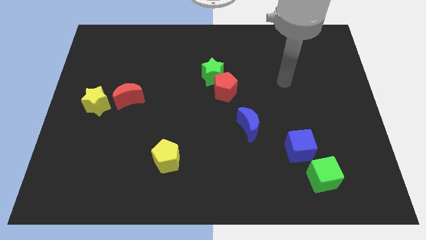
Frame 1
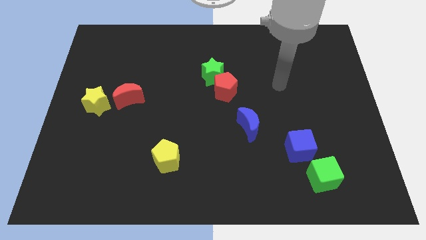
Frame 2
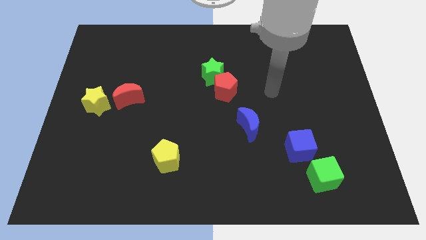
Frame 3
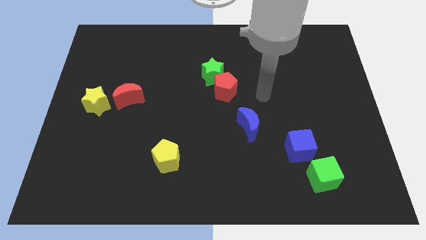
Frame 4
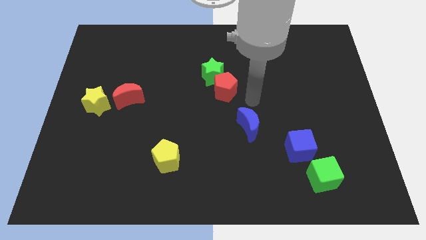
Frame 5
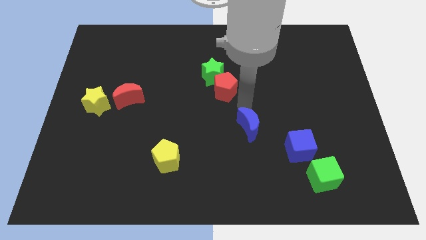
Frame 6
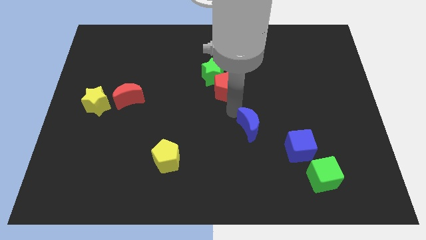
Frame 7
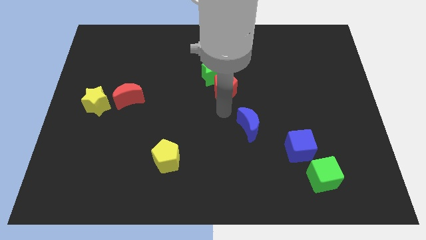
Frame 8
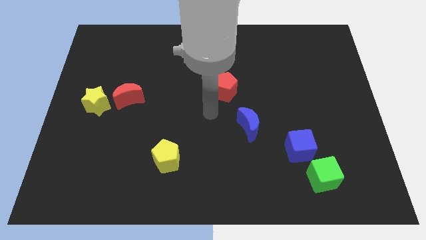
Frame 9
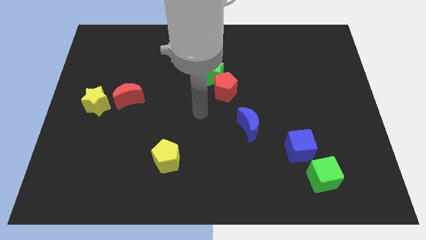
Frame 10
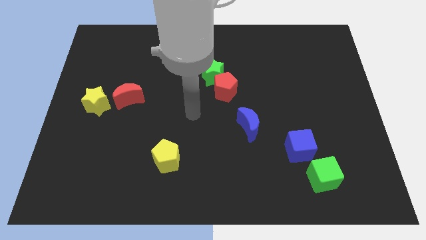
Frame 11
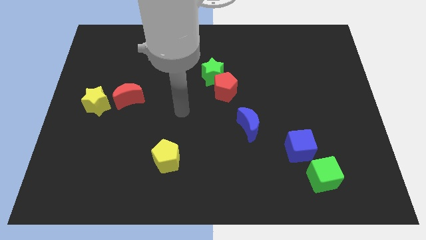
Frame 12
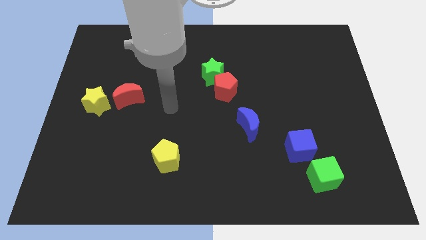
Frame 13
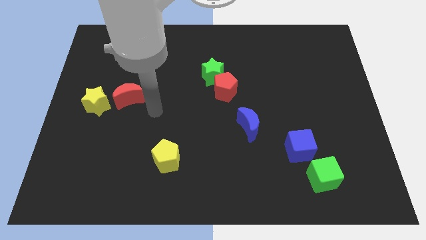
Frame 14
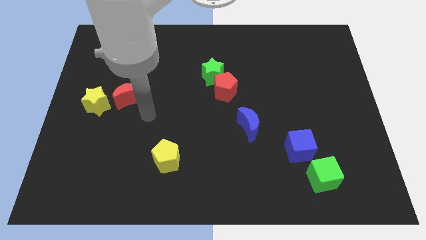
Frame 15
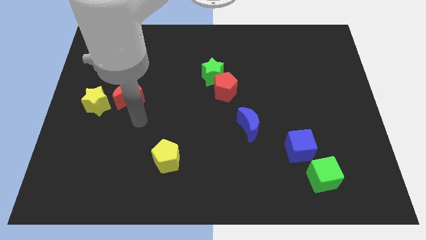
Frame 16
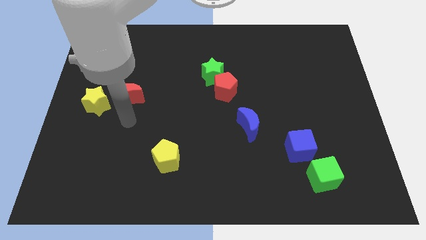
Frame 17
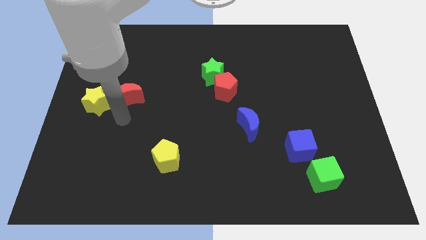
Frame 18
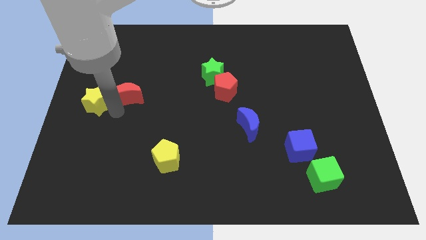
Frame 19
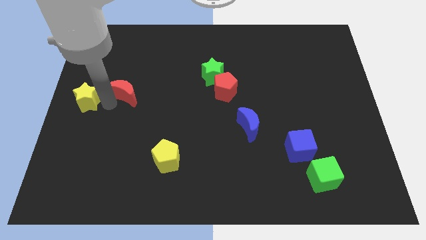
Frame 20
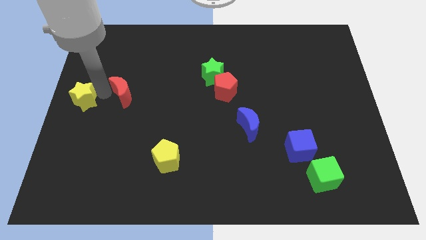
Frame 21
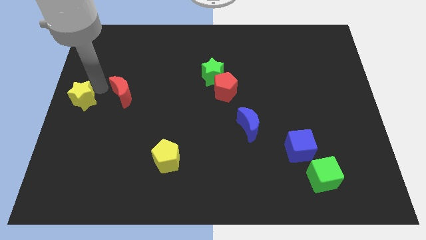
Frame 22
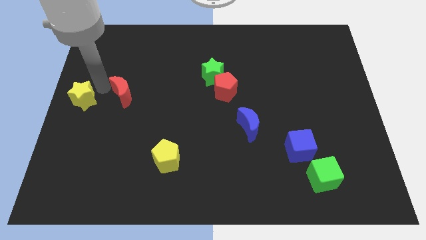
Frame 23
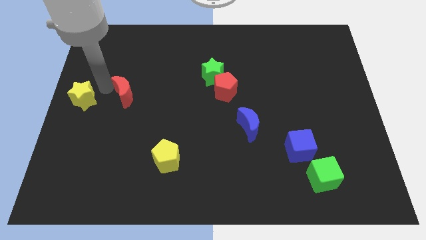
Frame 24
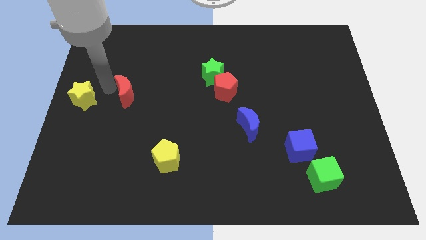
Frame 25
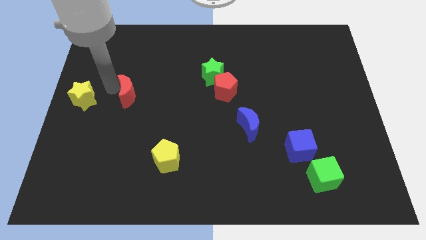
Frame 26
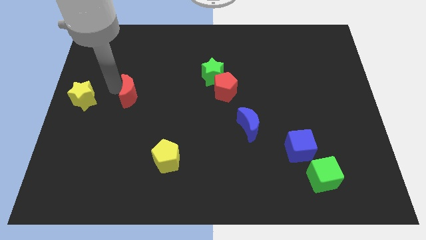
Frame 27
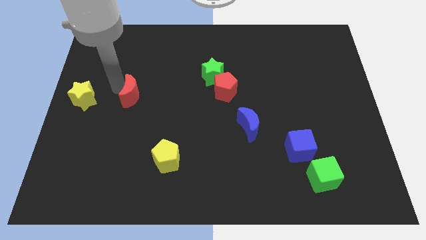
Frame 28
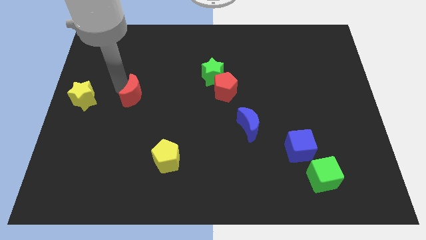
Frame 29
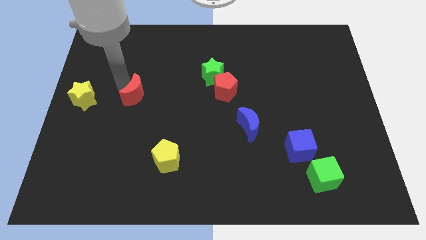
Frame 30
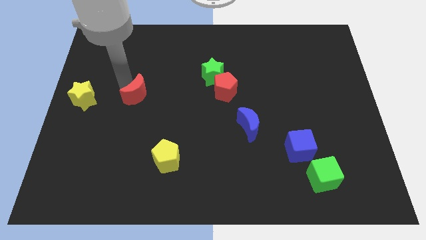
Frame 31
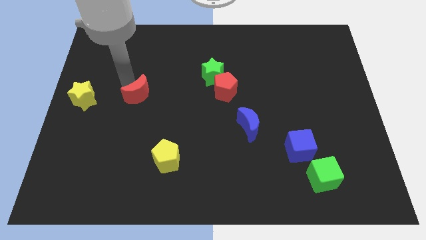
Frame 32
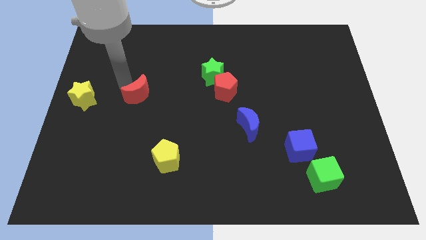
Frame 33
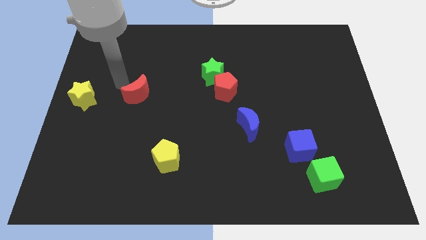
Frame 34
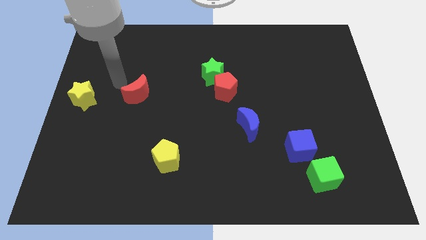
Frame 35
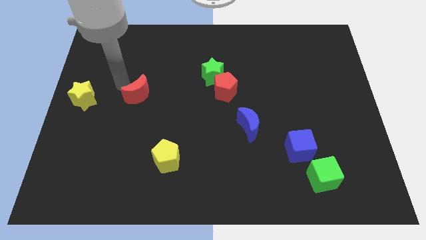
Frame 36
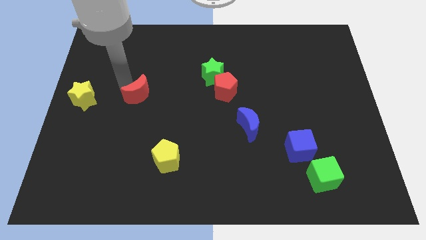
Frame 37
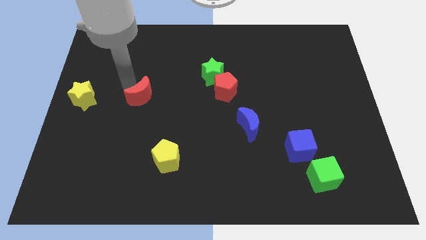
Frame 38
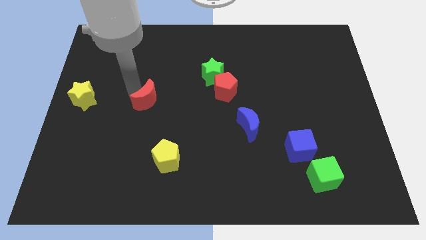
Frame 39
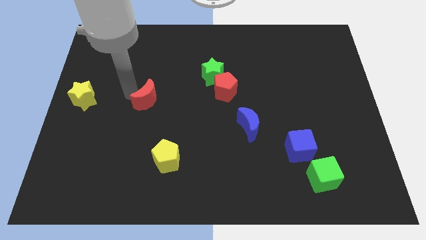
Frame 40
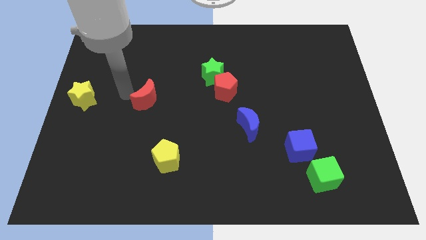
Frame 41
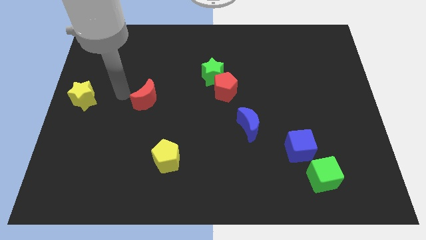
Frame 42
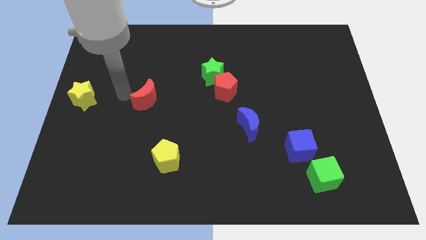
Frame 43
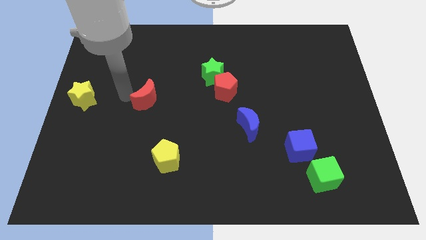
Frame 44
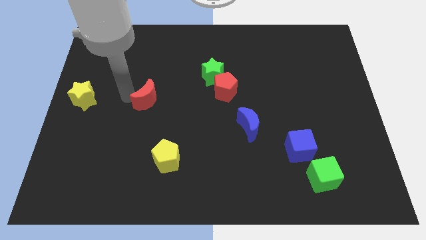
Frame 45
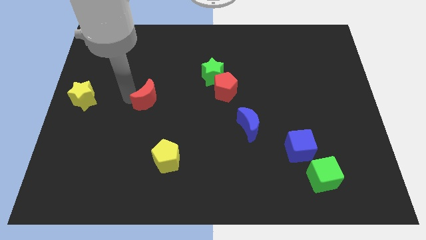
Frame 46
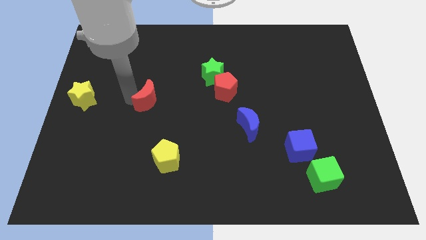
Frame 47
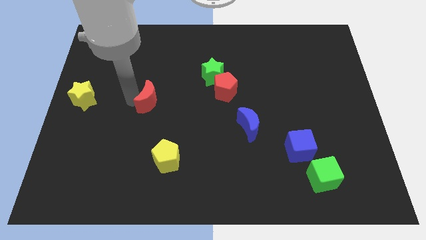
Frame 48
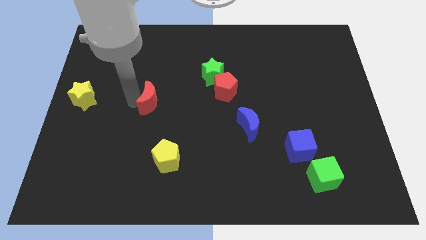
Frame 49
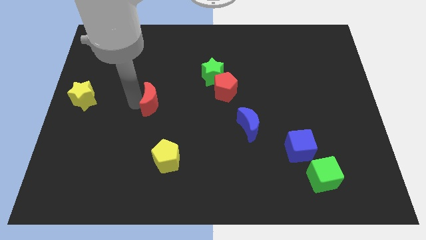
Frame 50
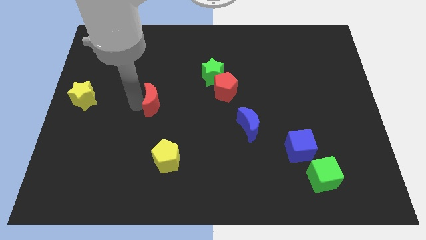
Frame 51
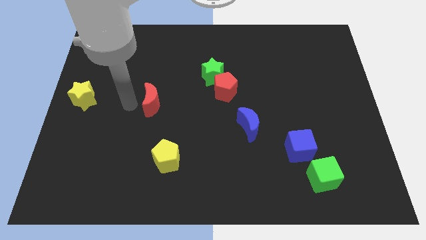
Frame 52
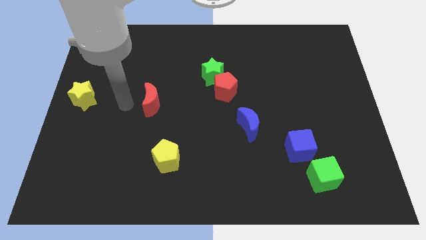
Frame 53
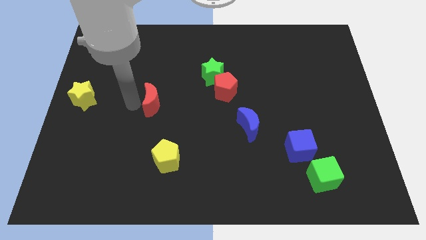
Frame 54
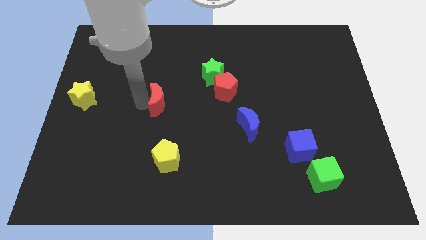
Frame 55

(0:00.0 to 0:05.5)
move the red moon slightly to the right

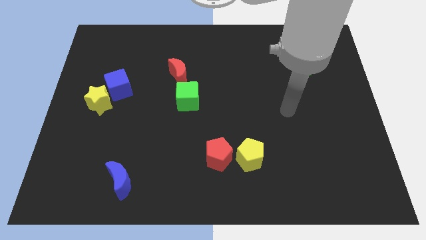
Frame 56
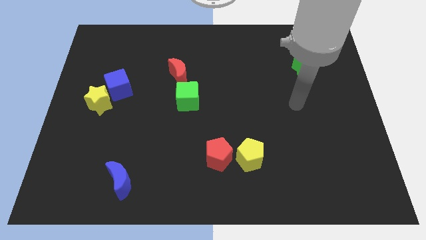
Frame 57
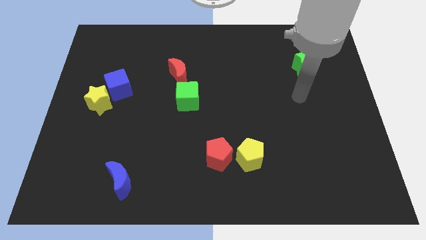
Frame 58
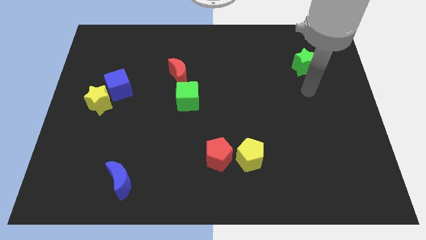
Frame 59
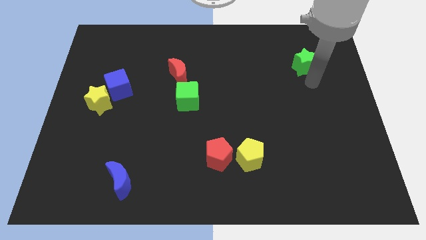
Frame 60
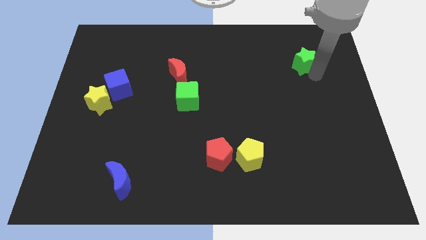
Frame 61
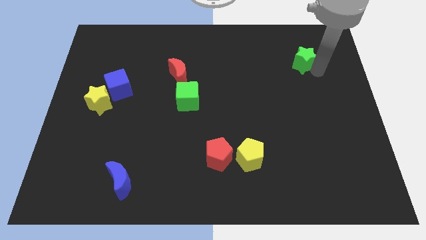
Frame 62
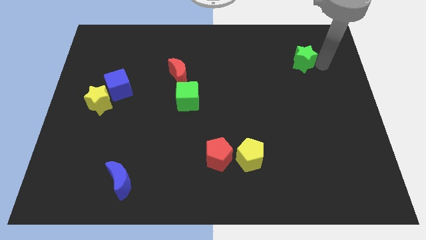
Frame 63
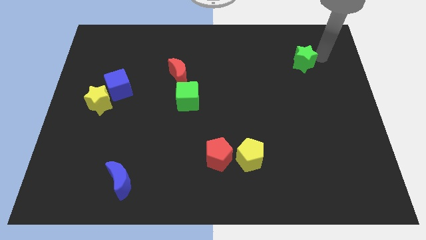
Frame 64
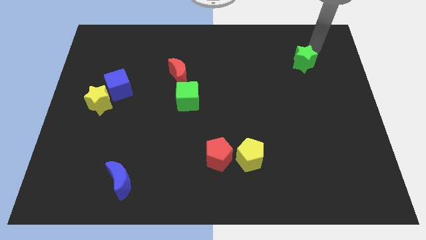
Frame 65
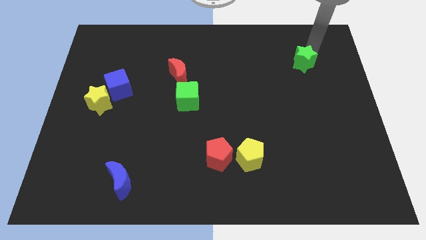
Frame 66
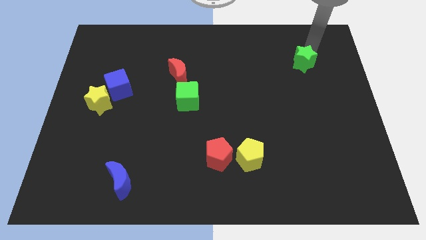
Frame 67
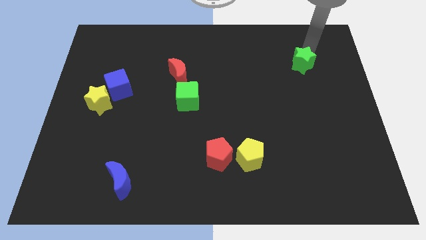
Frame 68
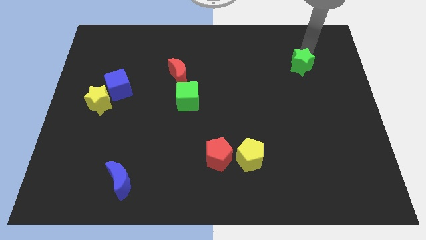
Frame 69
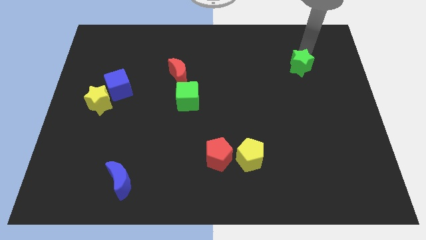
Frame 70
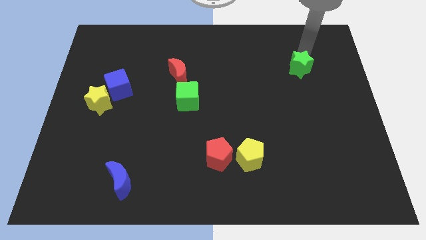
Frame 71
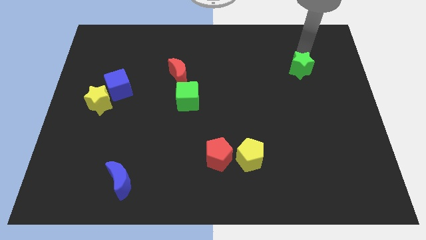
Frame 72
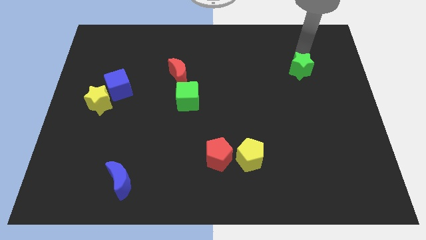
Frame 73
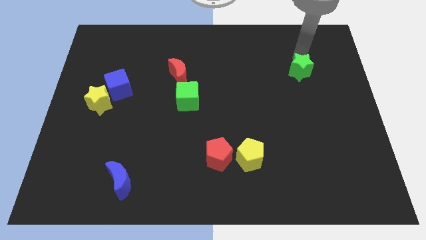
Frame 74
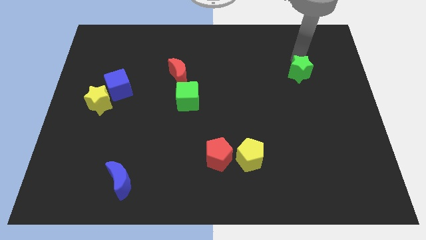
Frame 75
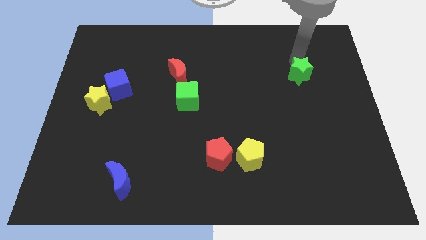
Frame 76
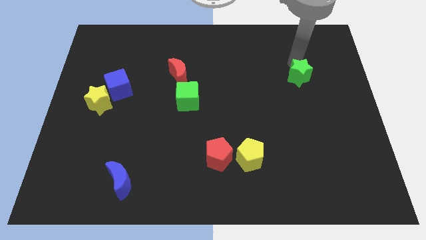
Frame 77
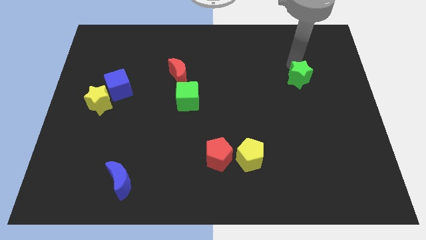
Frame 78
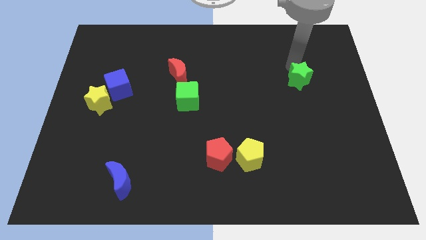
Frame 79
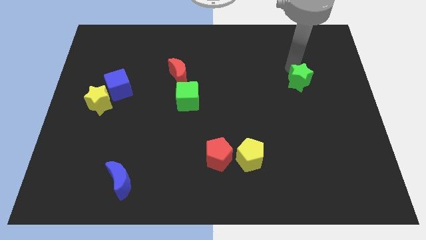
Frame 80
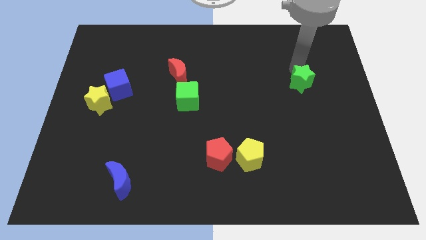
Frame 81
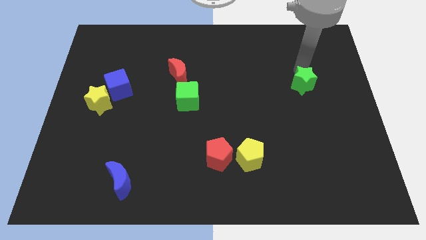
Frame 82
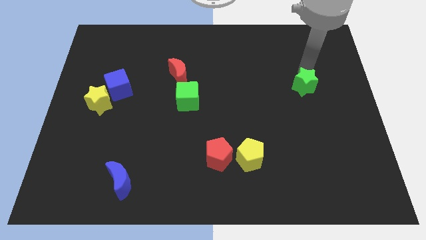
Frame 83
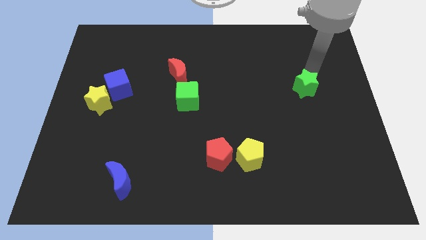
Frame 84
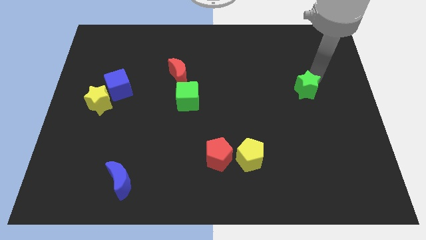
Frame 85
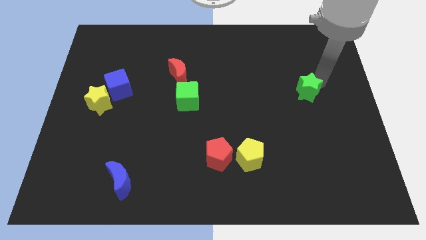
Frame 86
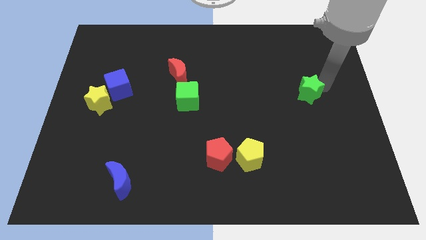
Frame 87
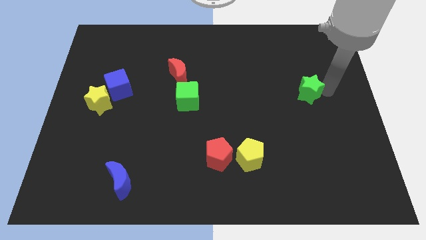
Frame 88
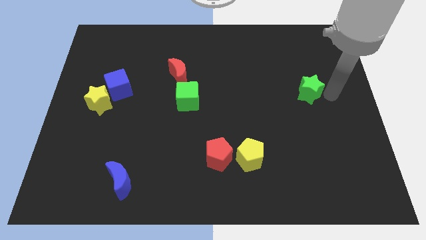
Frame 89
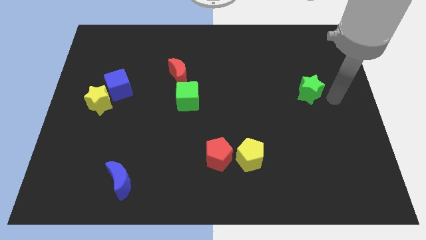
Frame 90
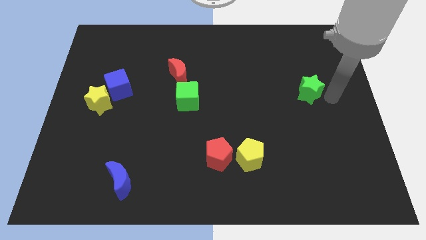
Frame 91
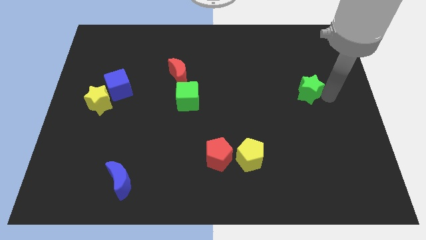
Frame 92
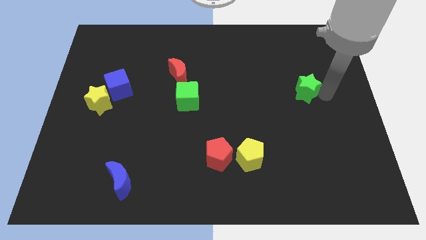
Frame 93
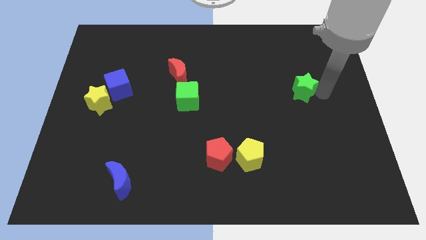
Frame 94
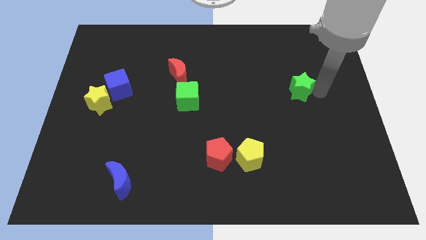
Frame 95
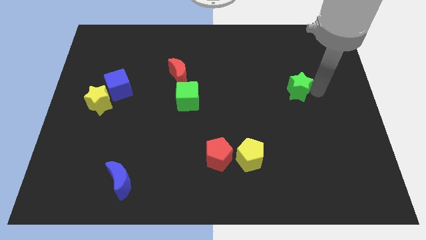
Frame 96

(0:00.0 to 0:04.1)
move the green star slightly downwards and left diagonally
